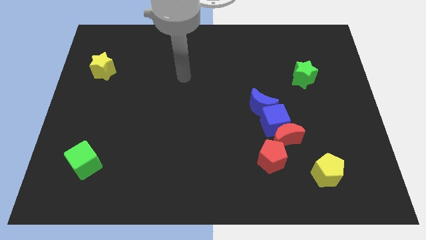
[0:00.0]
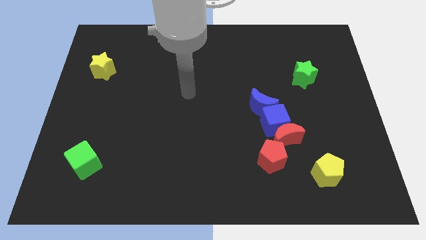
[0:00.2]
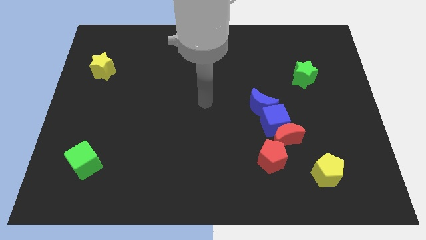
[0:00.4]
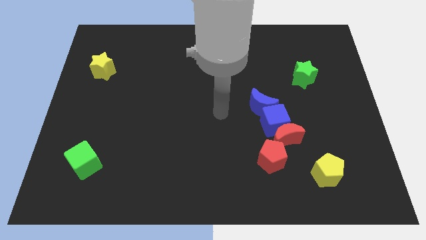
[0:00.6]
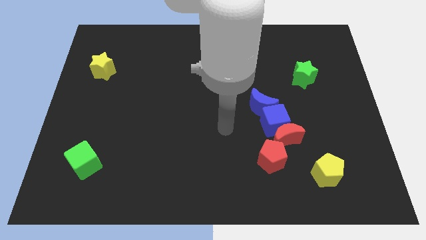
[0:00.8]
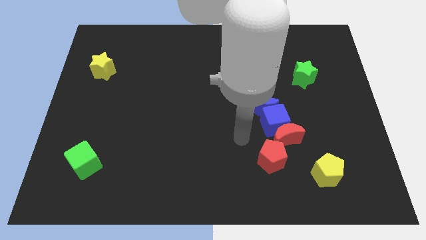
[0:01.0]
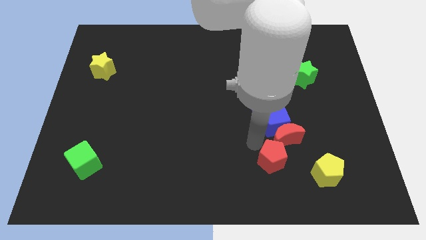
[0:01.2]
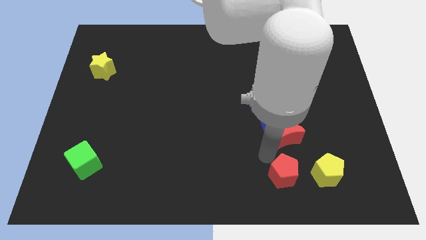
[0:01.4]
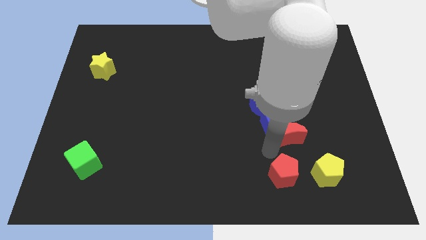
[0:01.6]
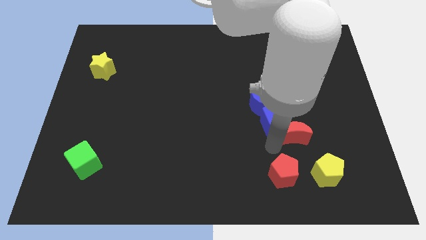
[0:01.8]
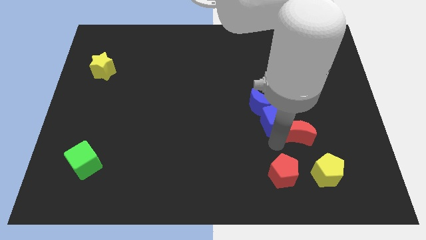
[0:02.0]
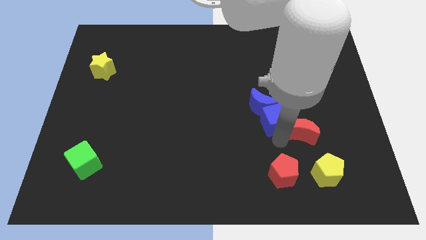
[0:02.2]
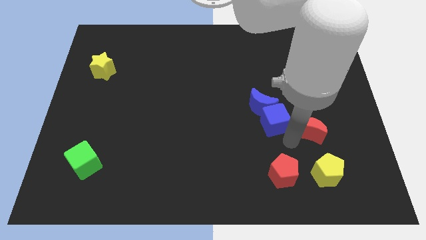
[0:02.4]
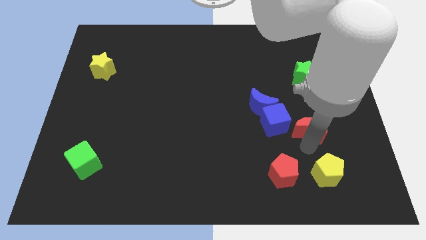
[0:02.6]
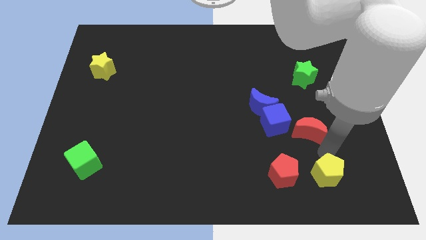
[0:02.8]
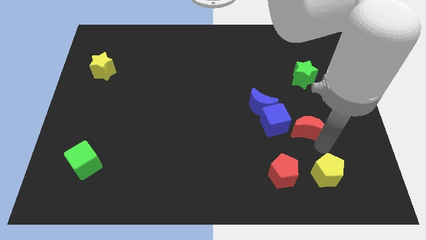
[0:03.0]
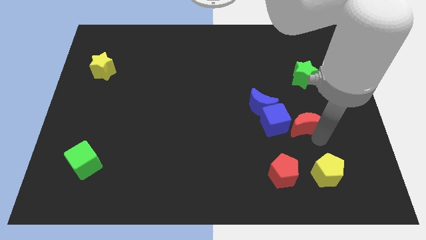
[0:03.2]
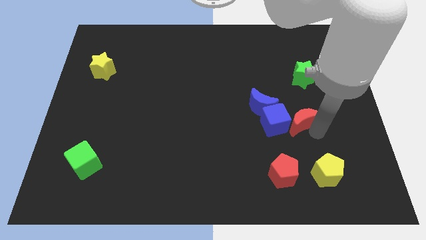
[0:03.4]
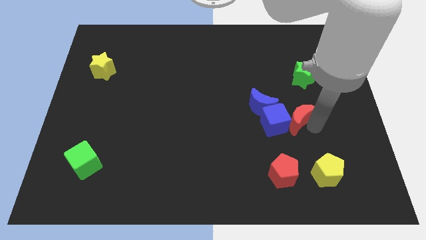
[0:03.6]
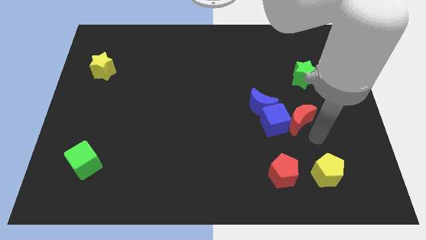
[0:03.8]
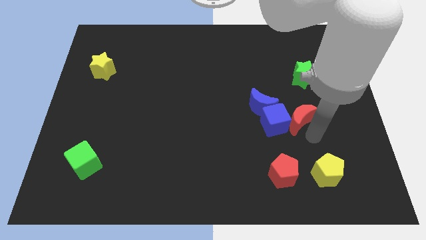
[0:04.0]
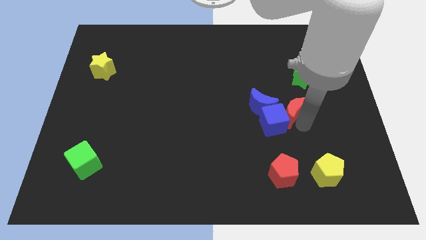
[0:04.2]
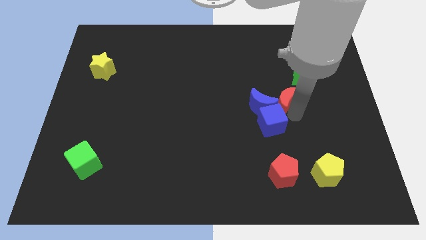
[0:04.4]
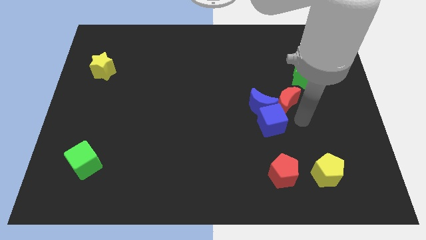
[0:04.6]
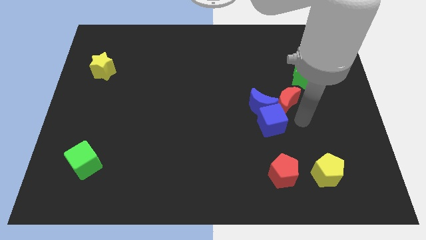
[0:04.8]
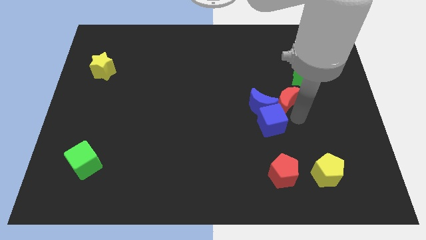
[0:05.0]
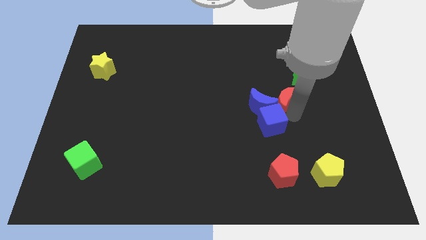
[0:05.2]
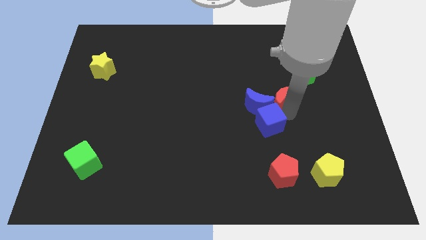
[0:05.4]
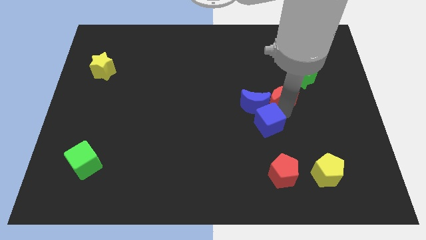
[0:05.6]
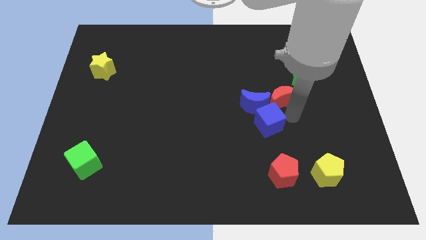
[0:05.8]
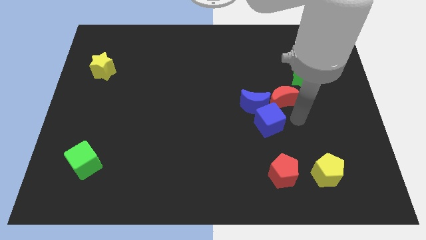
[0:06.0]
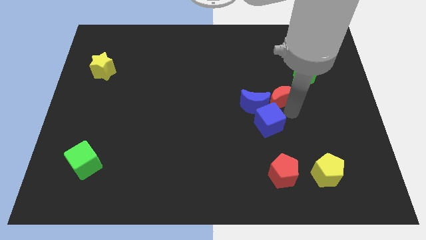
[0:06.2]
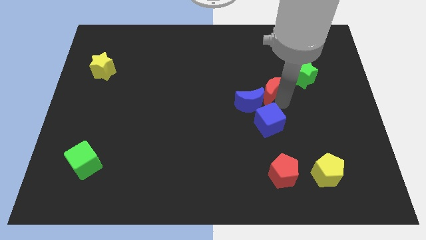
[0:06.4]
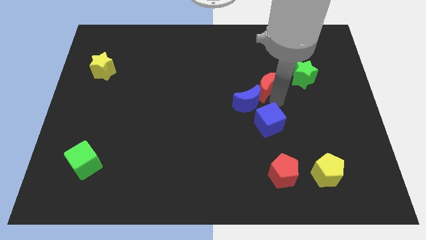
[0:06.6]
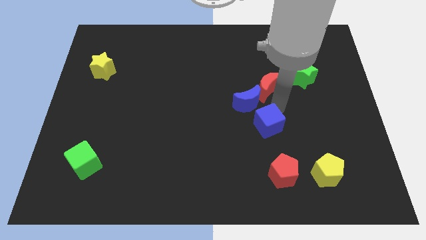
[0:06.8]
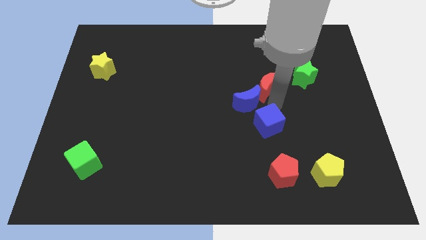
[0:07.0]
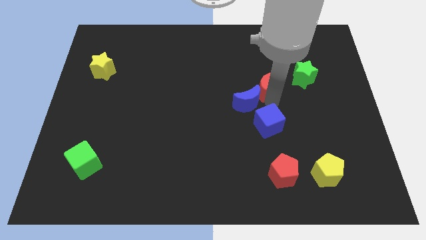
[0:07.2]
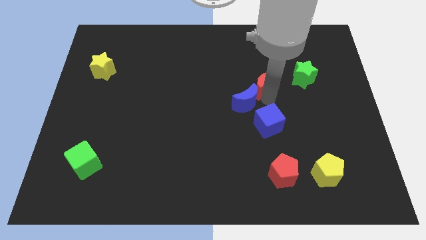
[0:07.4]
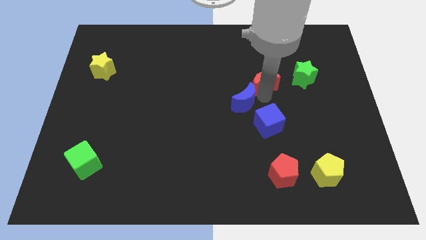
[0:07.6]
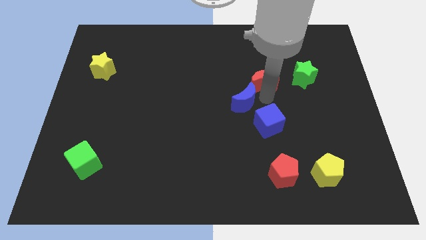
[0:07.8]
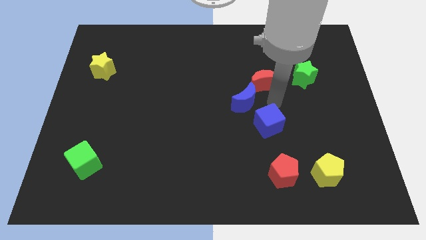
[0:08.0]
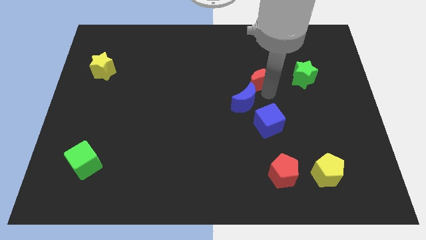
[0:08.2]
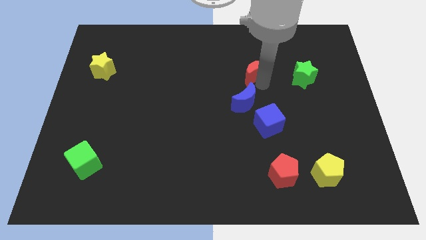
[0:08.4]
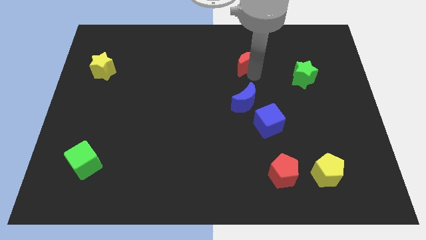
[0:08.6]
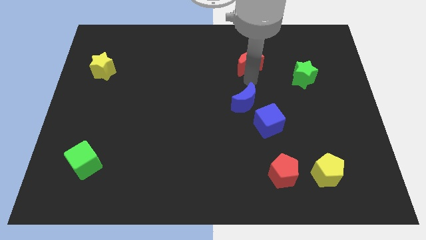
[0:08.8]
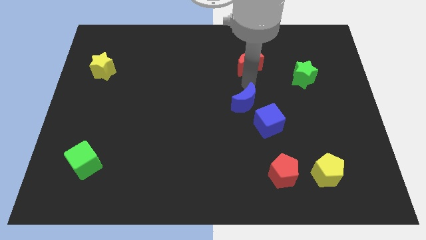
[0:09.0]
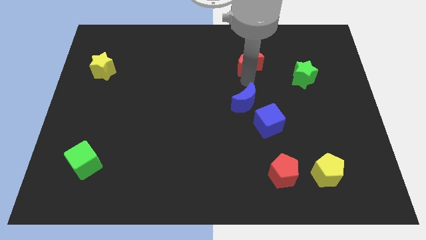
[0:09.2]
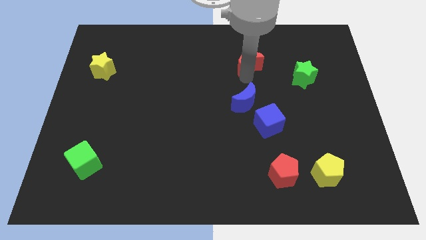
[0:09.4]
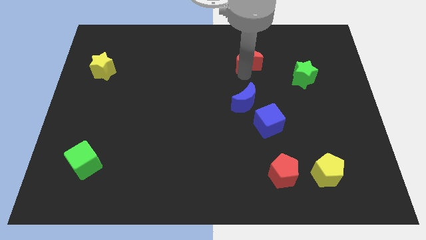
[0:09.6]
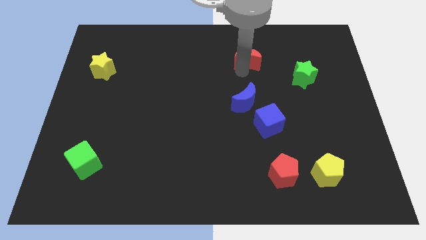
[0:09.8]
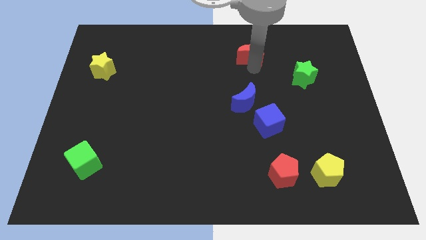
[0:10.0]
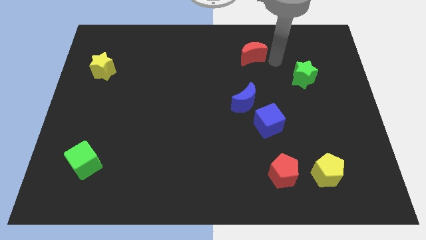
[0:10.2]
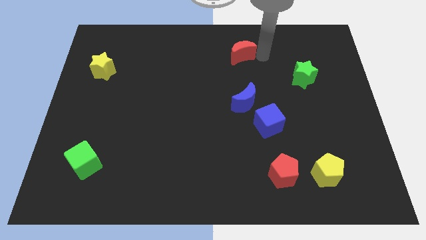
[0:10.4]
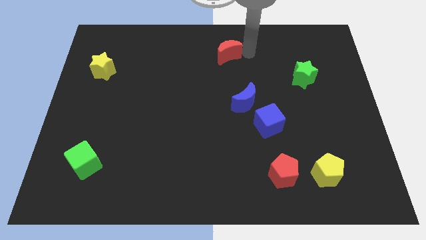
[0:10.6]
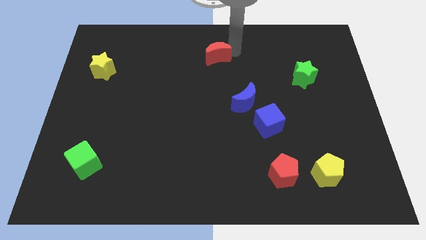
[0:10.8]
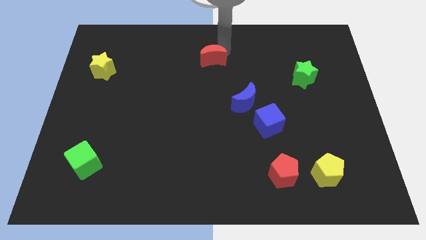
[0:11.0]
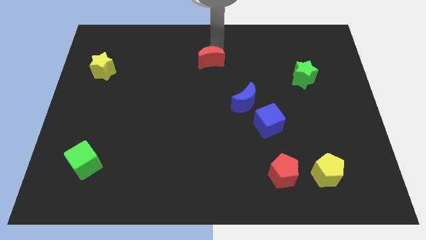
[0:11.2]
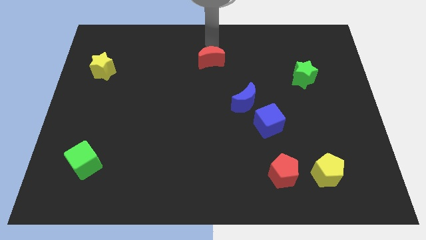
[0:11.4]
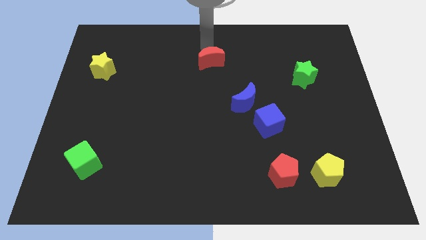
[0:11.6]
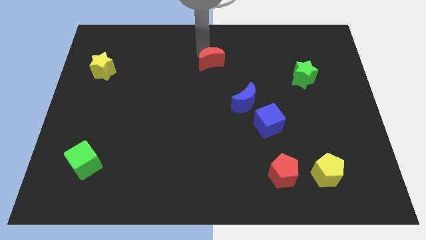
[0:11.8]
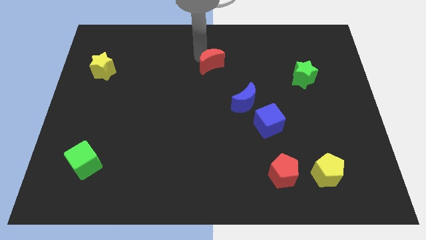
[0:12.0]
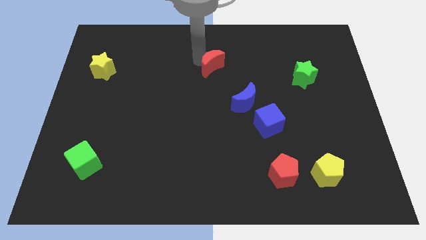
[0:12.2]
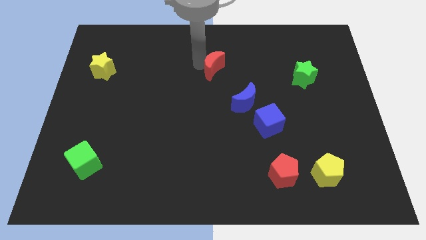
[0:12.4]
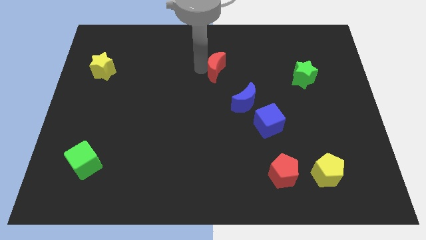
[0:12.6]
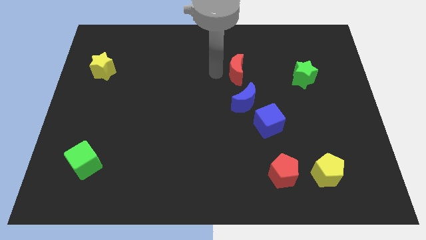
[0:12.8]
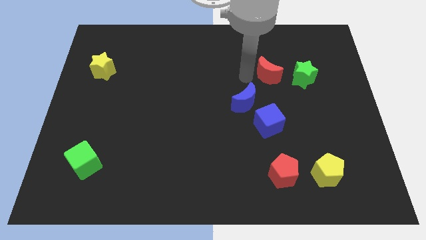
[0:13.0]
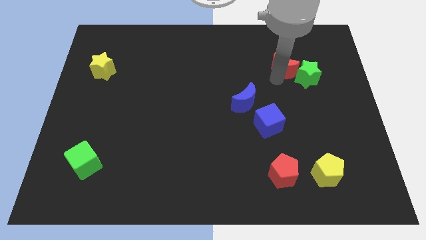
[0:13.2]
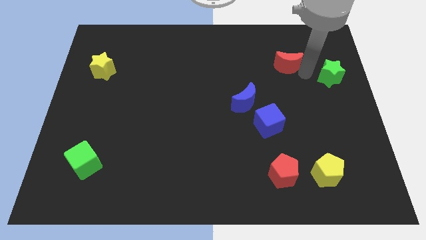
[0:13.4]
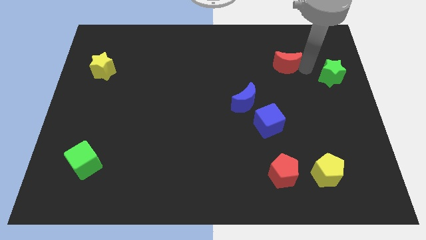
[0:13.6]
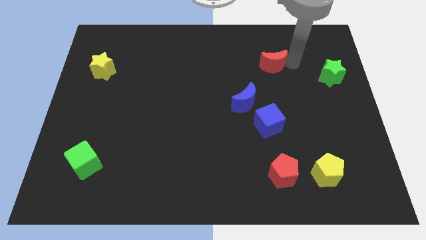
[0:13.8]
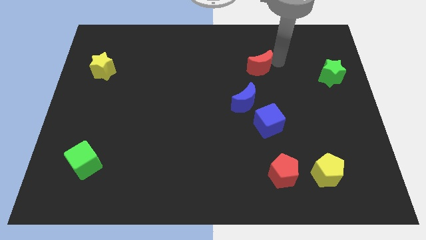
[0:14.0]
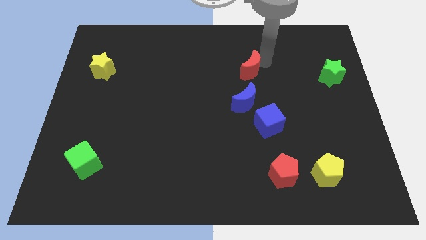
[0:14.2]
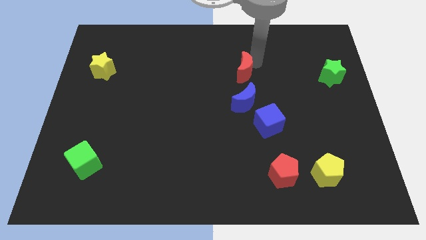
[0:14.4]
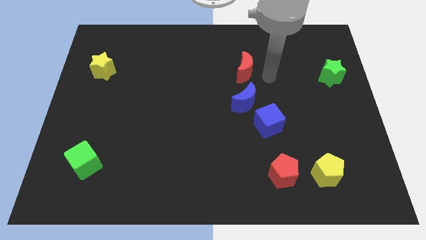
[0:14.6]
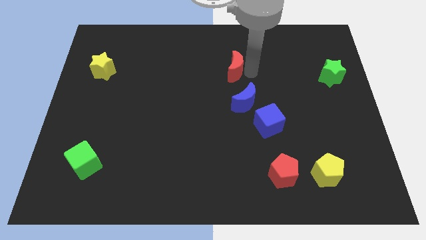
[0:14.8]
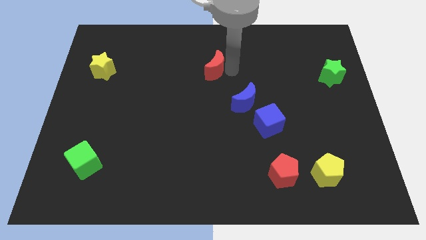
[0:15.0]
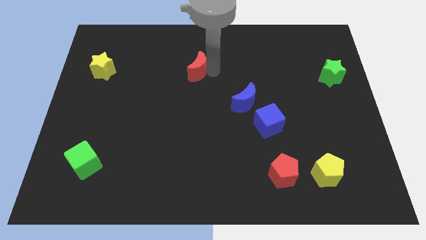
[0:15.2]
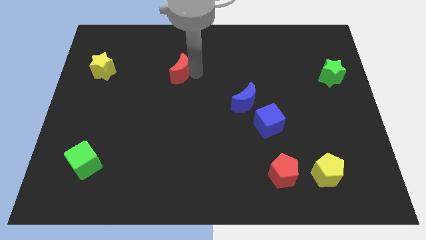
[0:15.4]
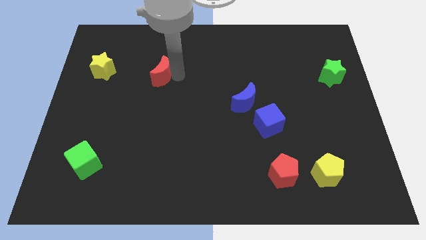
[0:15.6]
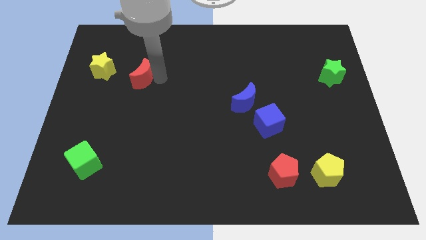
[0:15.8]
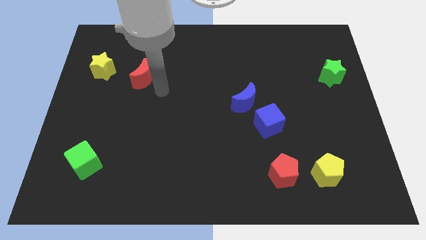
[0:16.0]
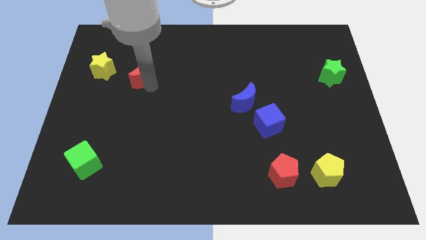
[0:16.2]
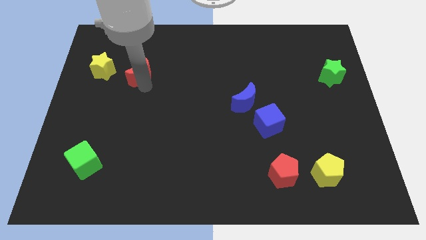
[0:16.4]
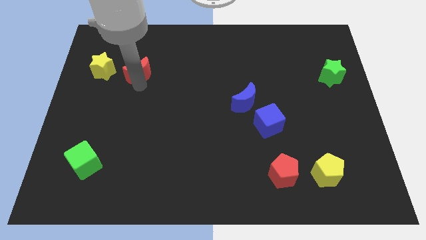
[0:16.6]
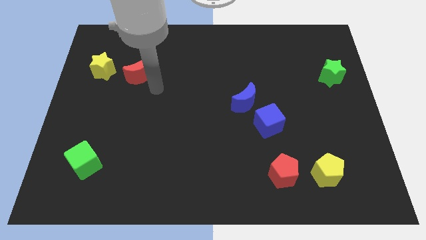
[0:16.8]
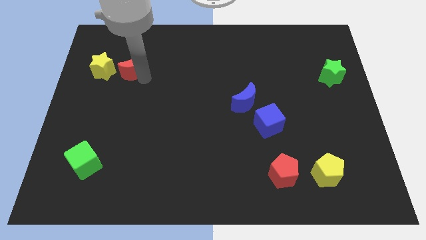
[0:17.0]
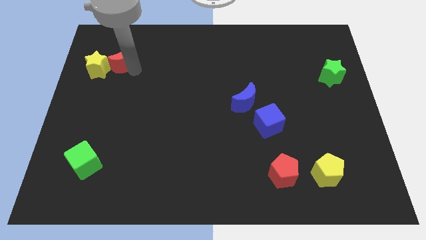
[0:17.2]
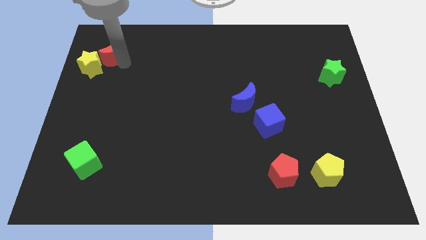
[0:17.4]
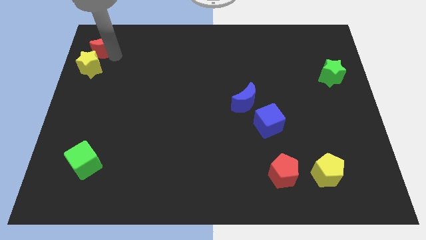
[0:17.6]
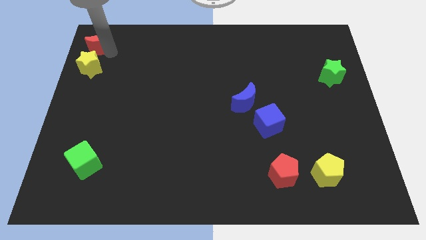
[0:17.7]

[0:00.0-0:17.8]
slide the red moon to the upper left corner
